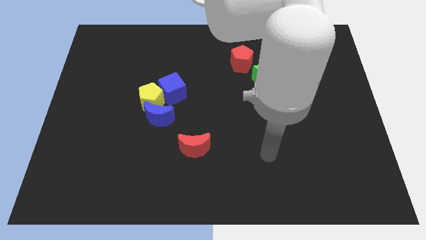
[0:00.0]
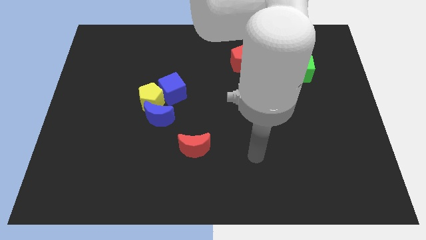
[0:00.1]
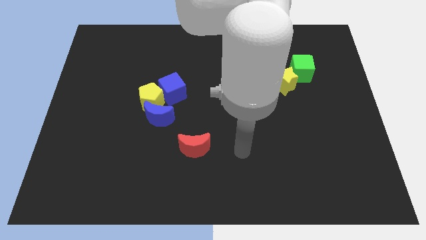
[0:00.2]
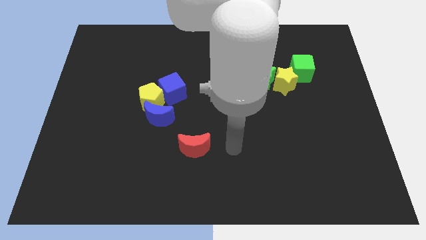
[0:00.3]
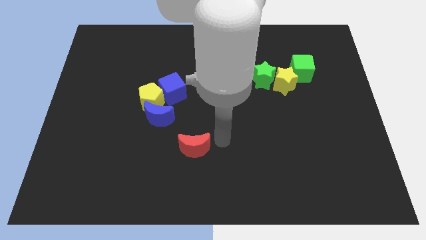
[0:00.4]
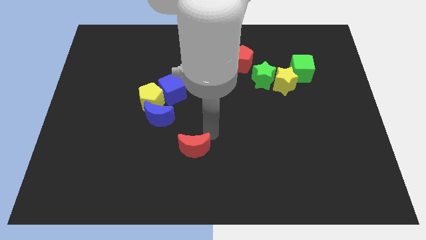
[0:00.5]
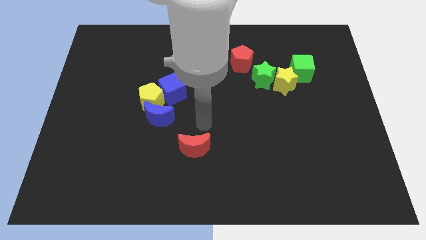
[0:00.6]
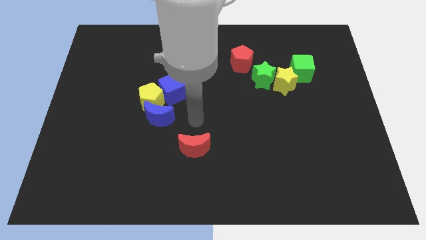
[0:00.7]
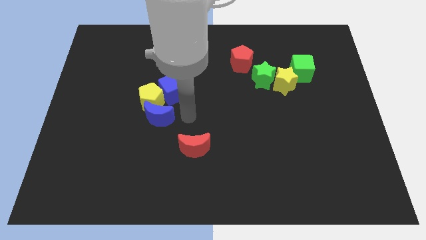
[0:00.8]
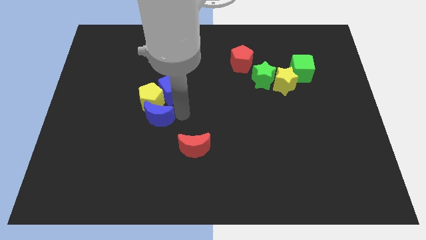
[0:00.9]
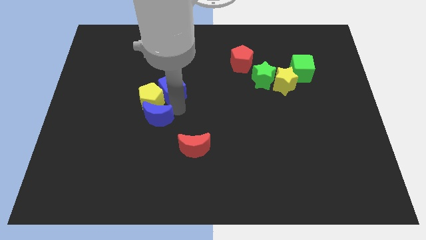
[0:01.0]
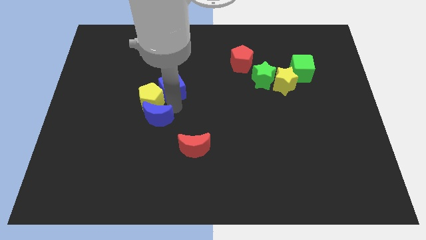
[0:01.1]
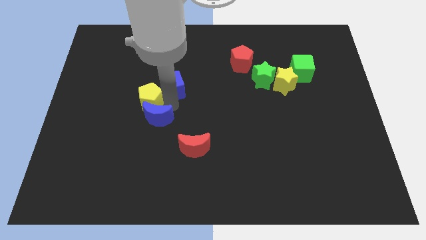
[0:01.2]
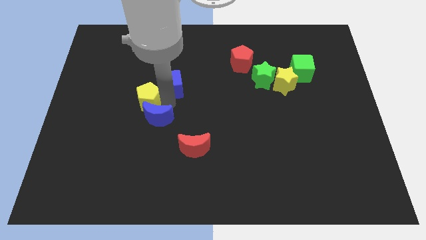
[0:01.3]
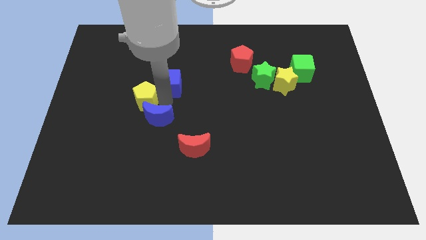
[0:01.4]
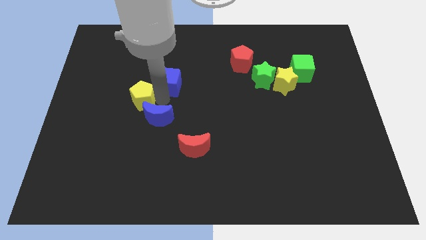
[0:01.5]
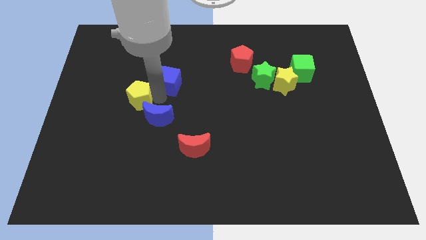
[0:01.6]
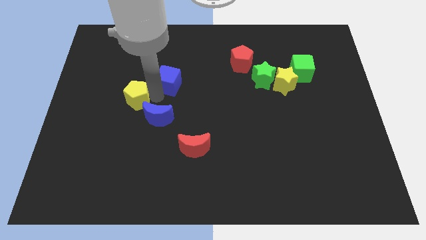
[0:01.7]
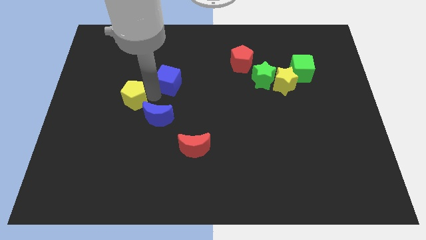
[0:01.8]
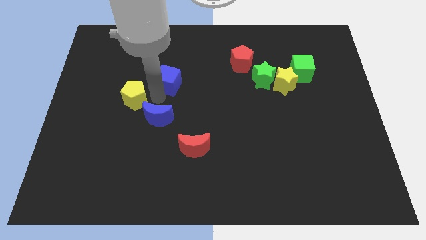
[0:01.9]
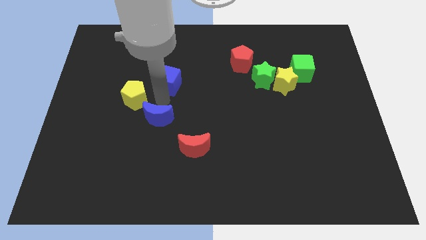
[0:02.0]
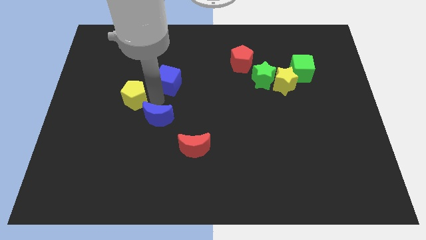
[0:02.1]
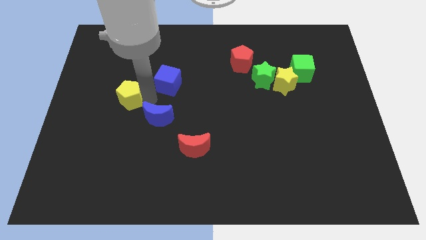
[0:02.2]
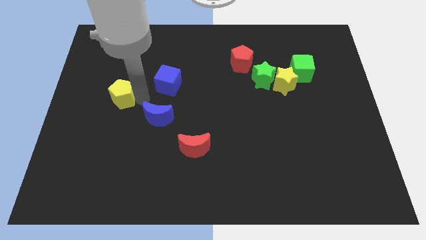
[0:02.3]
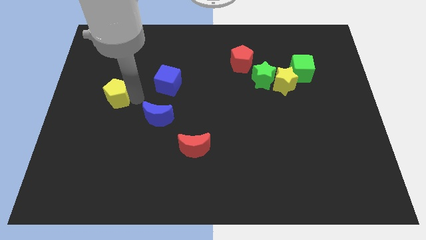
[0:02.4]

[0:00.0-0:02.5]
move the yellow pentagon away from the blue cube and blue moon

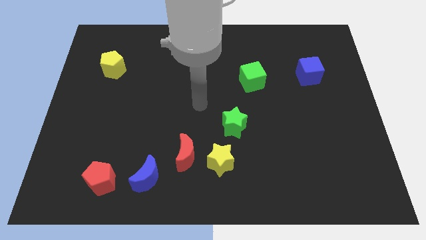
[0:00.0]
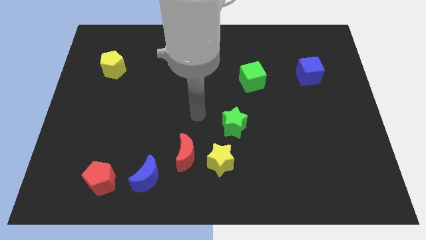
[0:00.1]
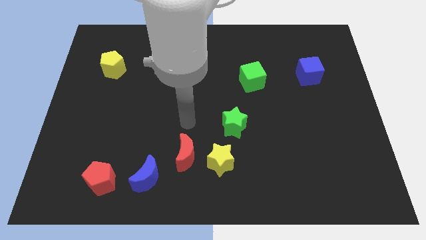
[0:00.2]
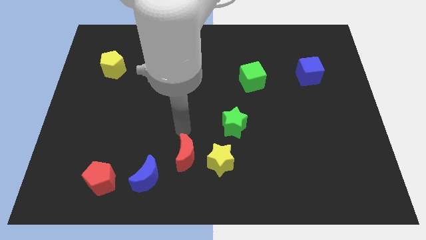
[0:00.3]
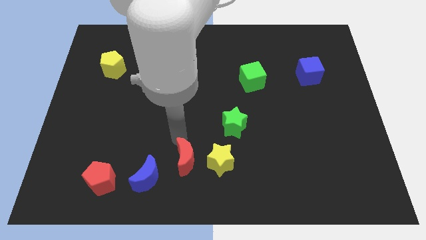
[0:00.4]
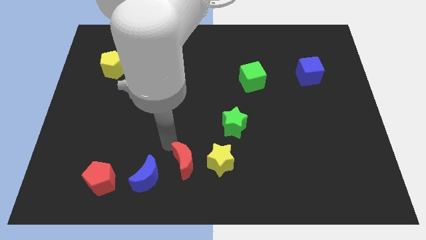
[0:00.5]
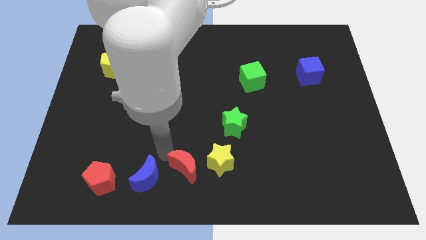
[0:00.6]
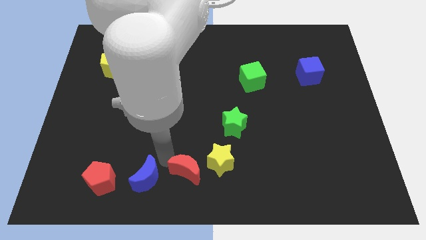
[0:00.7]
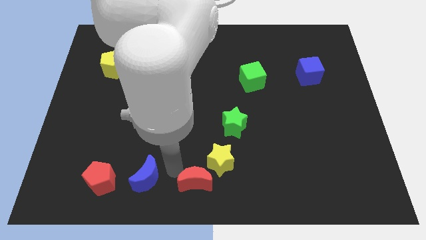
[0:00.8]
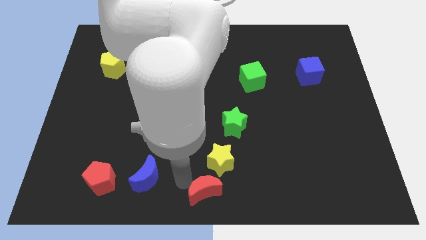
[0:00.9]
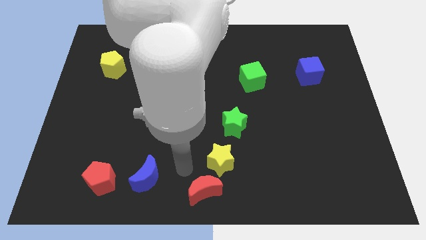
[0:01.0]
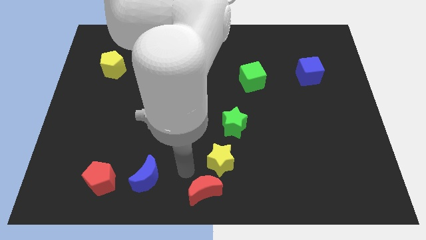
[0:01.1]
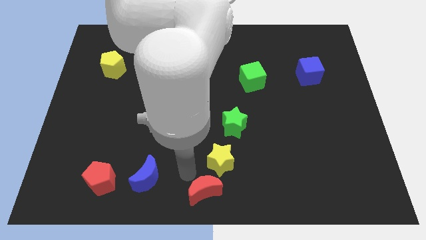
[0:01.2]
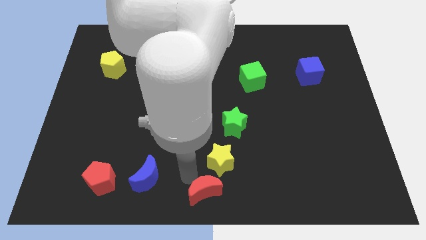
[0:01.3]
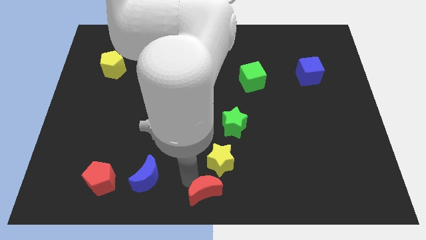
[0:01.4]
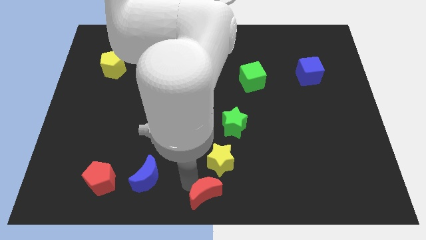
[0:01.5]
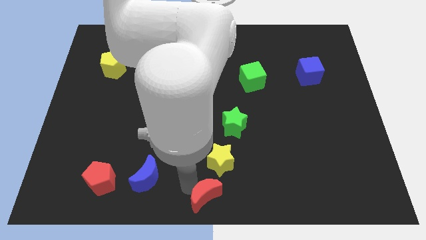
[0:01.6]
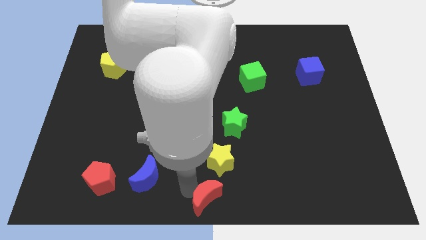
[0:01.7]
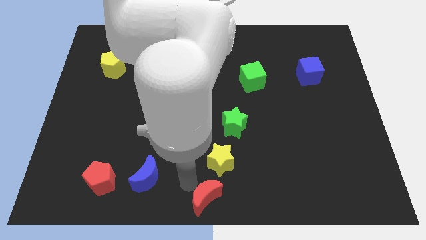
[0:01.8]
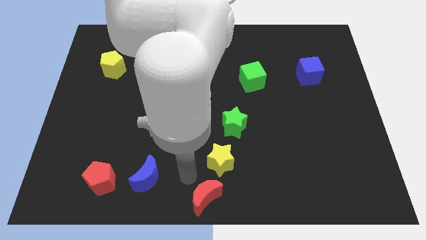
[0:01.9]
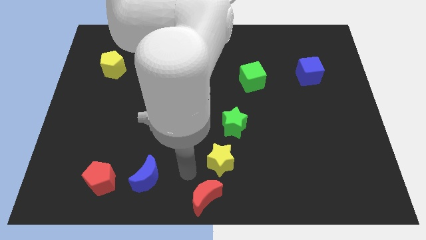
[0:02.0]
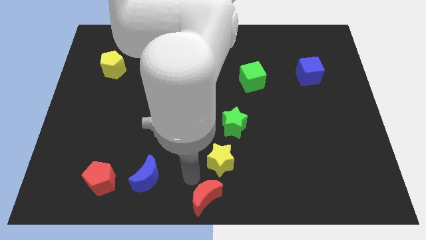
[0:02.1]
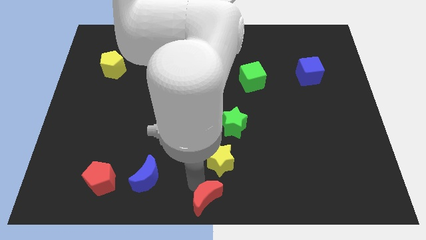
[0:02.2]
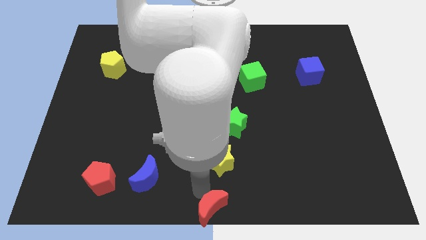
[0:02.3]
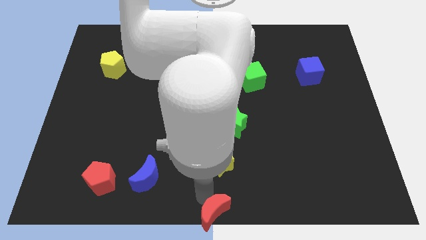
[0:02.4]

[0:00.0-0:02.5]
pull the red moon apart from the yellow star and blue moon

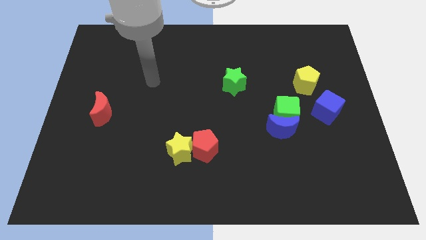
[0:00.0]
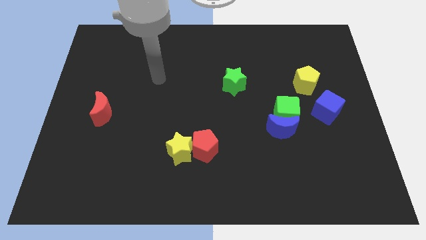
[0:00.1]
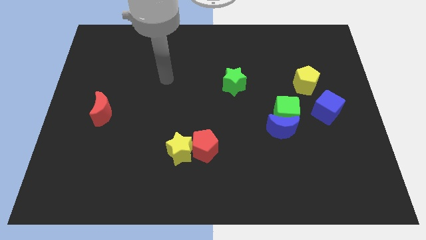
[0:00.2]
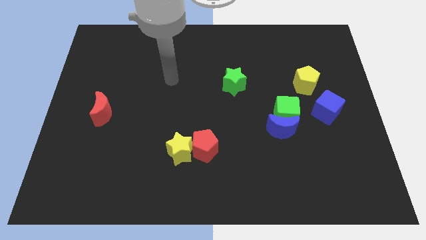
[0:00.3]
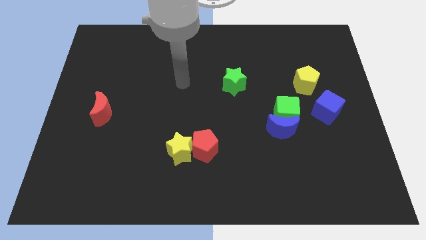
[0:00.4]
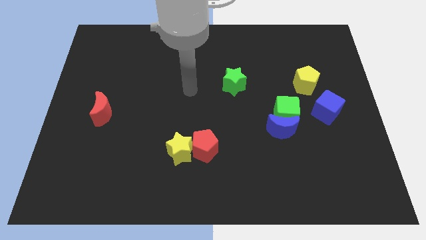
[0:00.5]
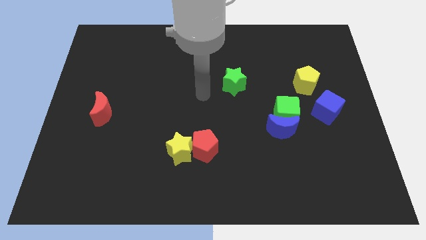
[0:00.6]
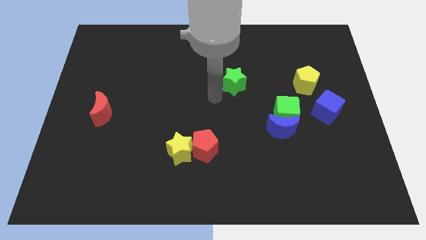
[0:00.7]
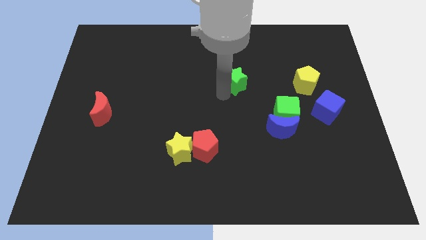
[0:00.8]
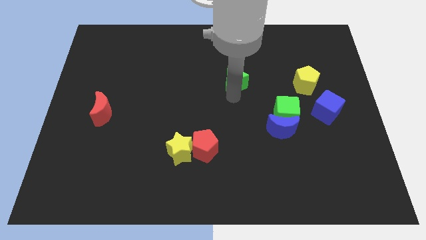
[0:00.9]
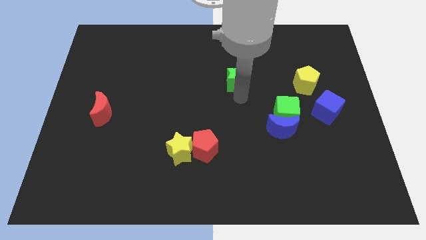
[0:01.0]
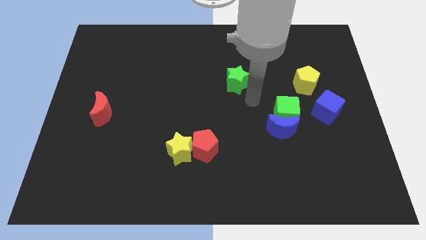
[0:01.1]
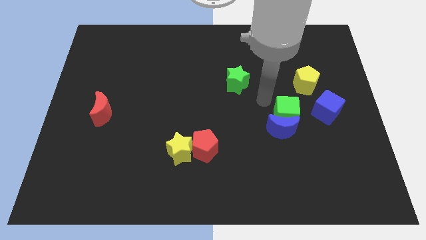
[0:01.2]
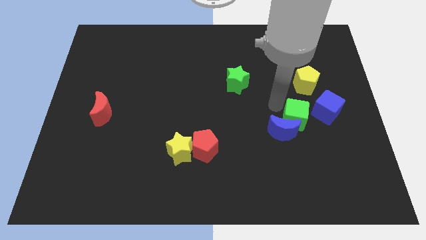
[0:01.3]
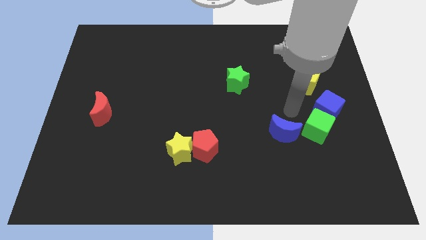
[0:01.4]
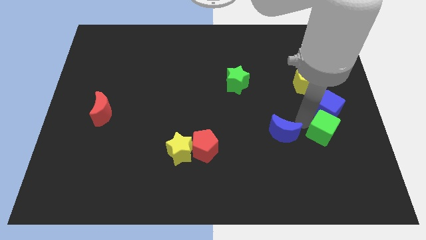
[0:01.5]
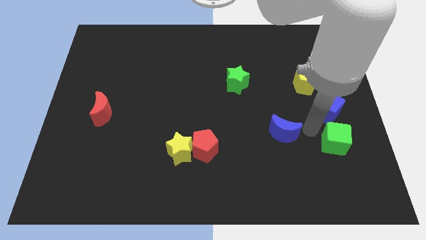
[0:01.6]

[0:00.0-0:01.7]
move the blue moon away from the green cube

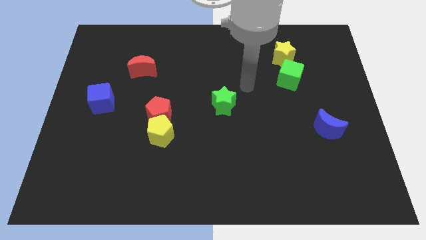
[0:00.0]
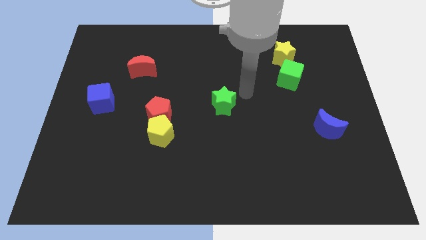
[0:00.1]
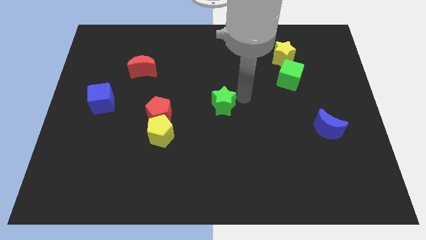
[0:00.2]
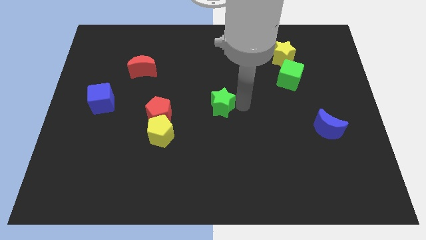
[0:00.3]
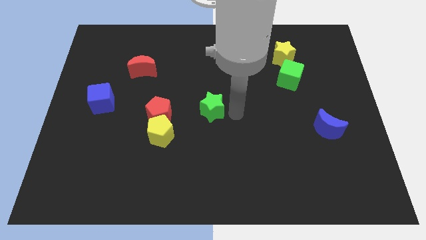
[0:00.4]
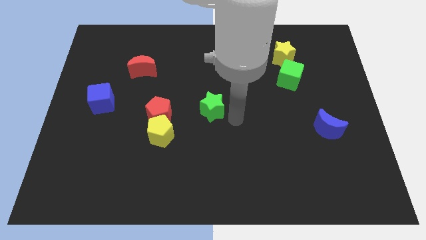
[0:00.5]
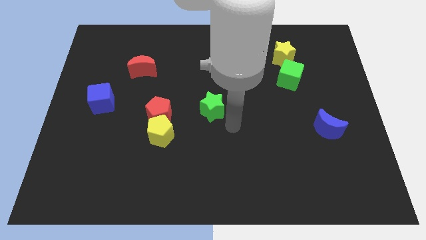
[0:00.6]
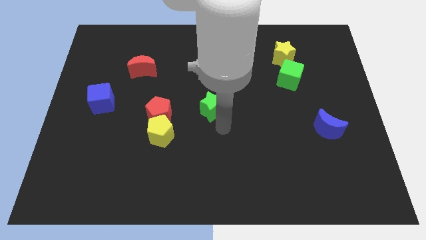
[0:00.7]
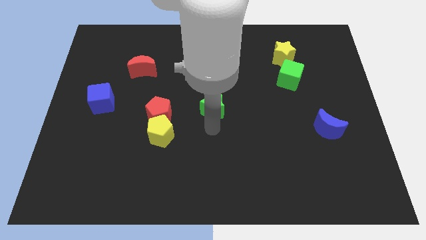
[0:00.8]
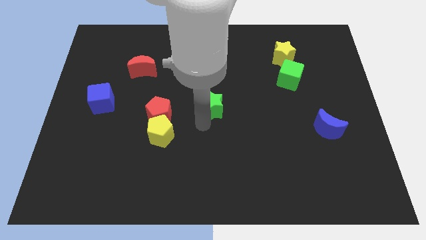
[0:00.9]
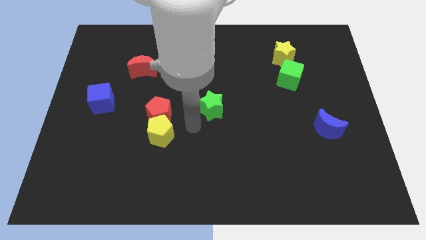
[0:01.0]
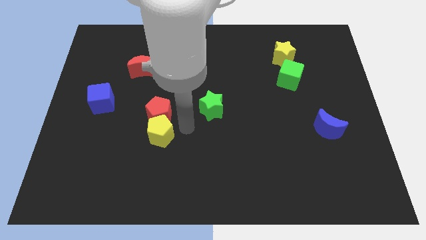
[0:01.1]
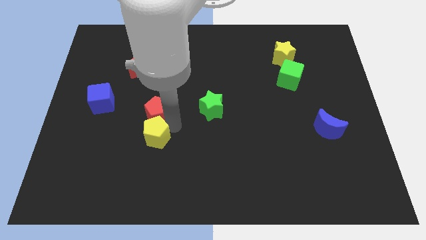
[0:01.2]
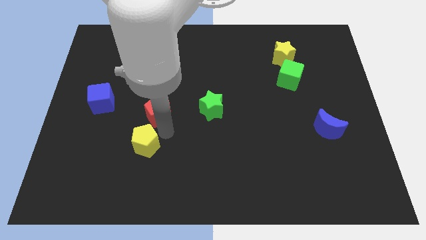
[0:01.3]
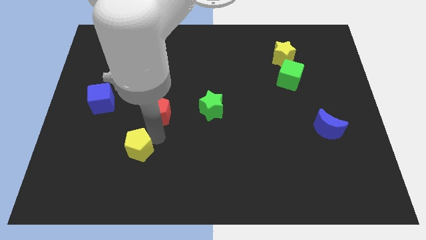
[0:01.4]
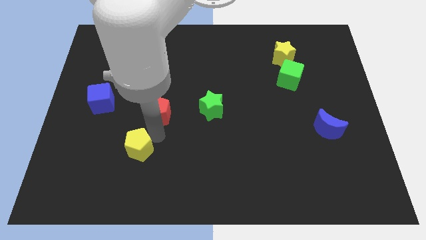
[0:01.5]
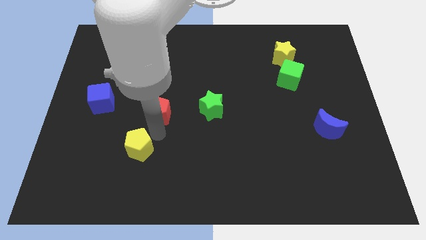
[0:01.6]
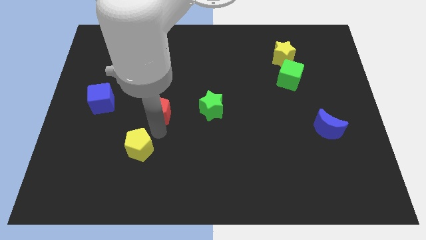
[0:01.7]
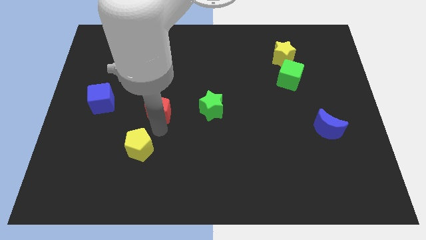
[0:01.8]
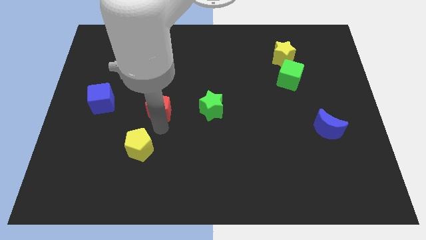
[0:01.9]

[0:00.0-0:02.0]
move the red pentagon away from the yellow pentagon

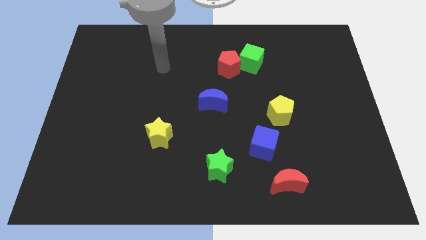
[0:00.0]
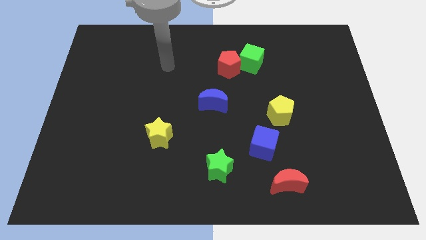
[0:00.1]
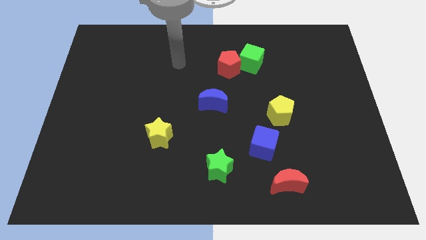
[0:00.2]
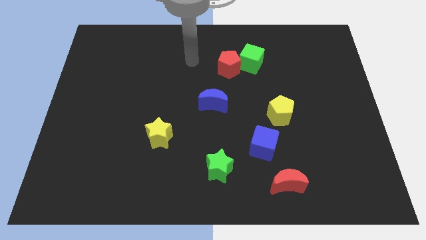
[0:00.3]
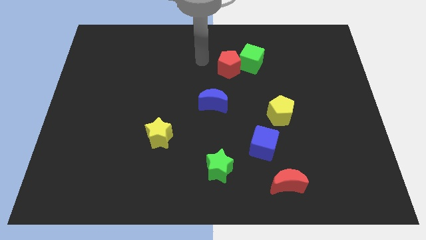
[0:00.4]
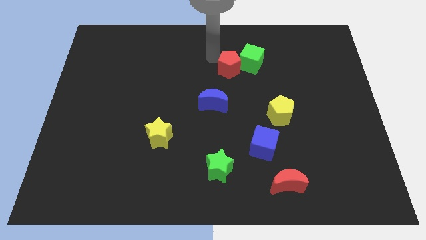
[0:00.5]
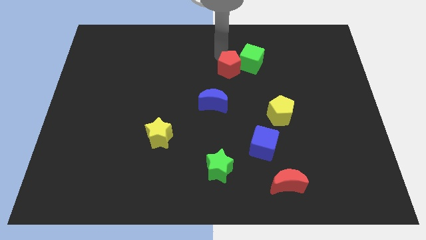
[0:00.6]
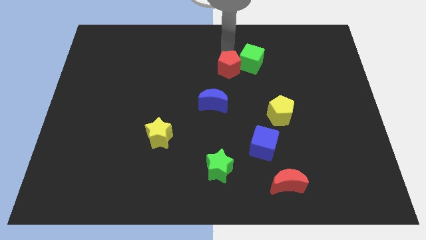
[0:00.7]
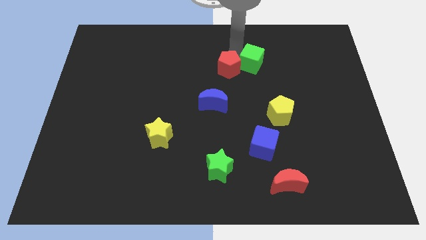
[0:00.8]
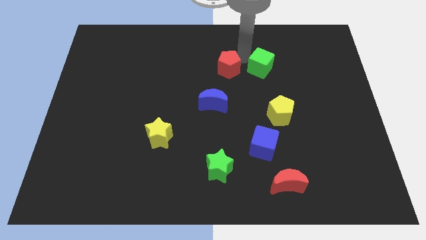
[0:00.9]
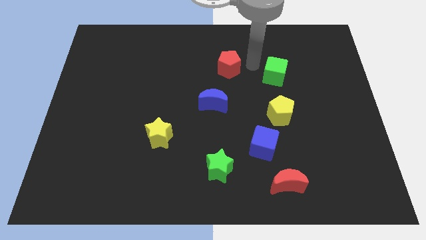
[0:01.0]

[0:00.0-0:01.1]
pull the red pentagon apart from the green cube
